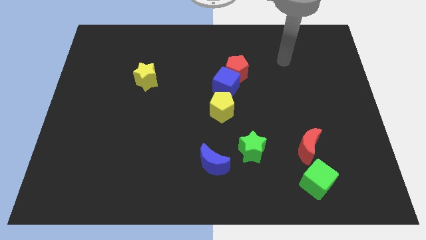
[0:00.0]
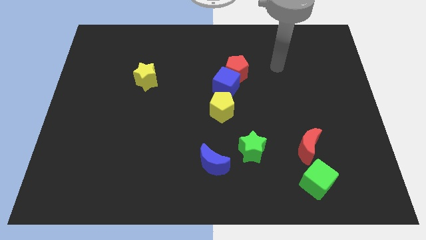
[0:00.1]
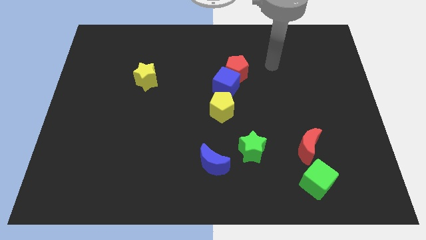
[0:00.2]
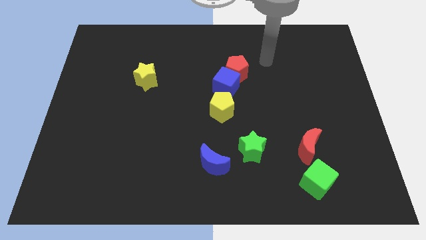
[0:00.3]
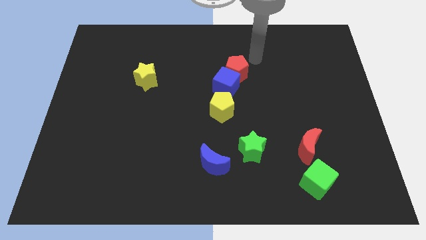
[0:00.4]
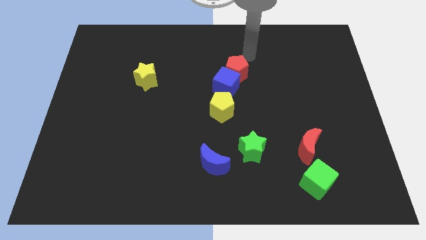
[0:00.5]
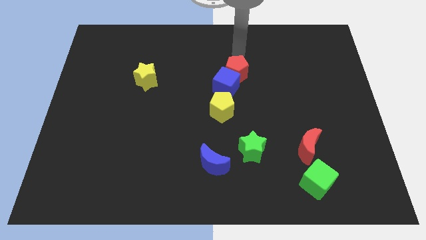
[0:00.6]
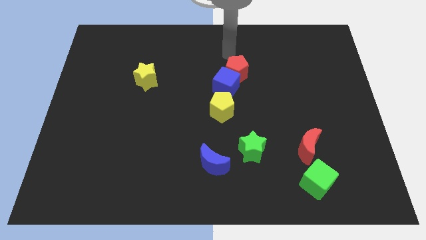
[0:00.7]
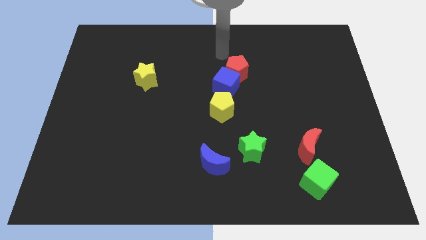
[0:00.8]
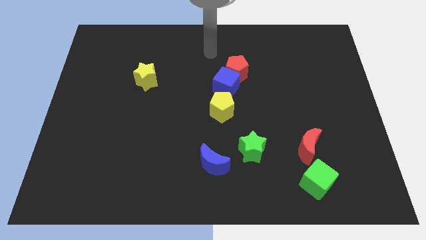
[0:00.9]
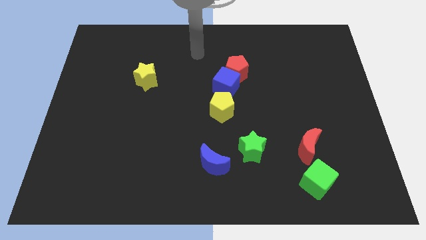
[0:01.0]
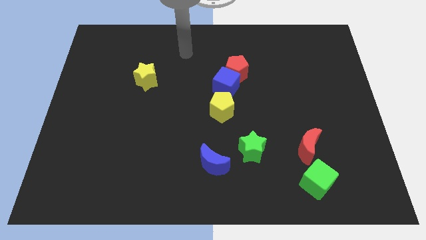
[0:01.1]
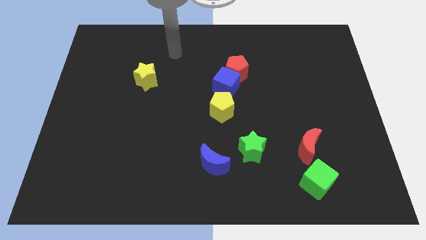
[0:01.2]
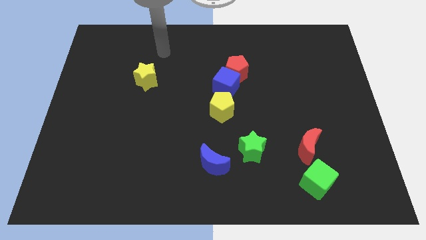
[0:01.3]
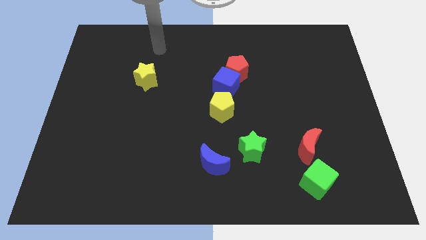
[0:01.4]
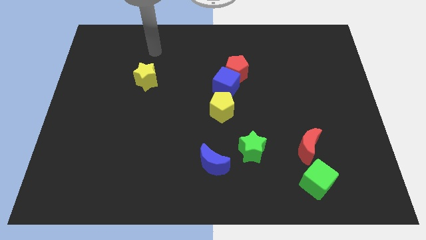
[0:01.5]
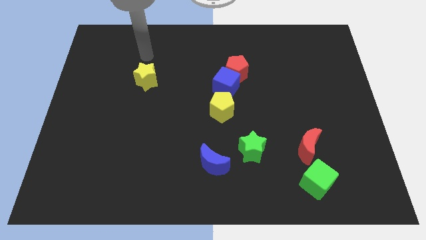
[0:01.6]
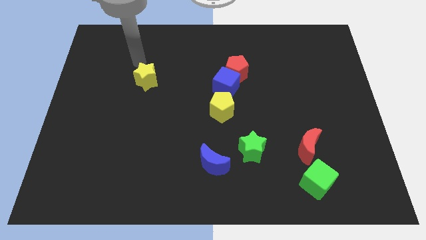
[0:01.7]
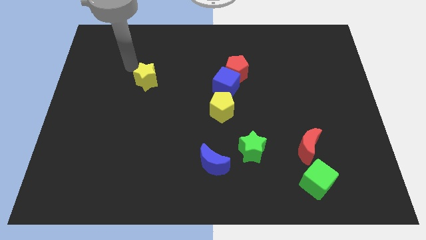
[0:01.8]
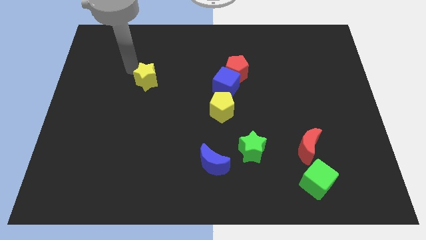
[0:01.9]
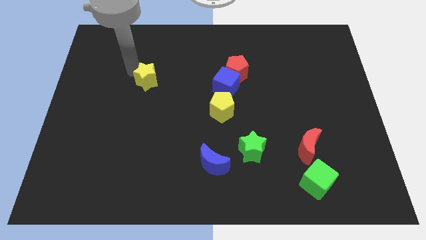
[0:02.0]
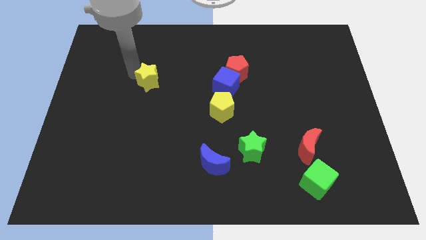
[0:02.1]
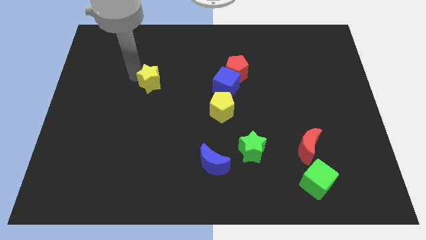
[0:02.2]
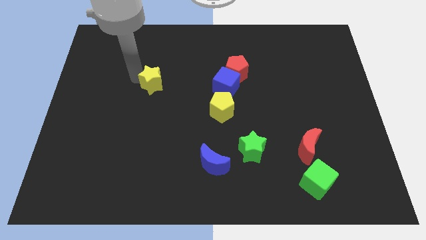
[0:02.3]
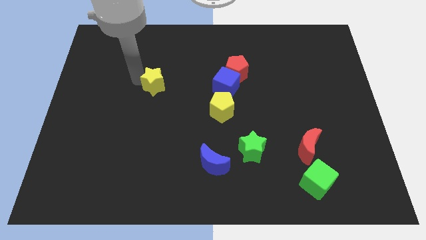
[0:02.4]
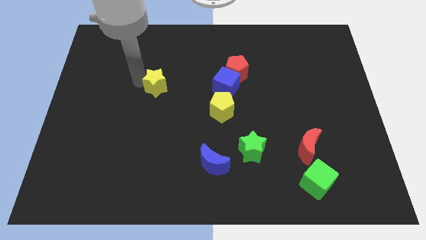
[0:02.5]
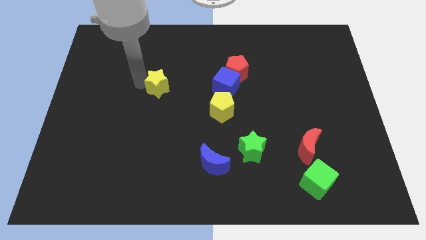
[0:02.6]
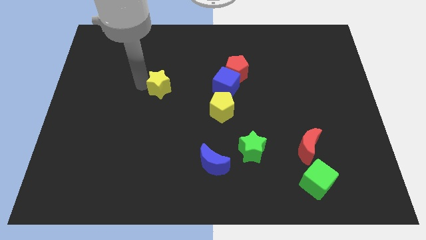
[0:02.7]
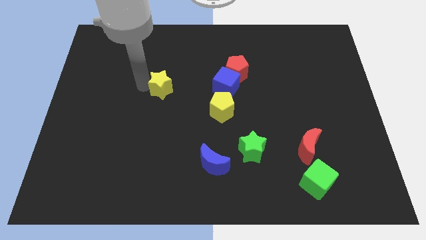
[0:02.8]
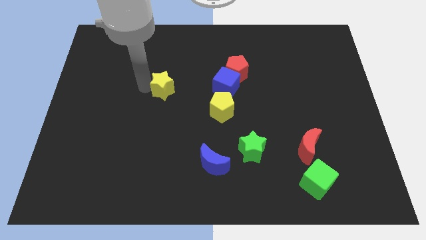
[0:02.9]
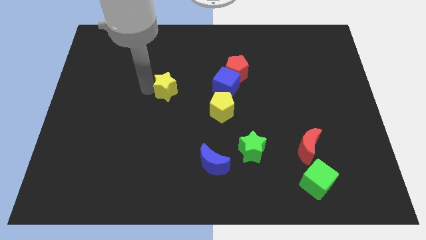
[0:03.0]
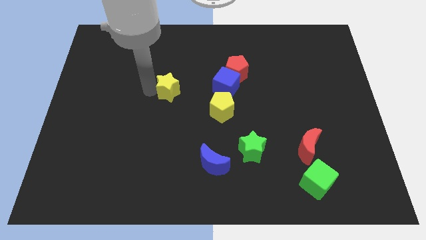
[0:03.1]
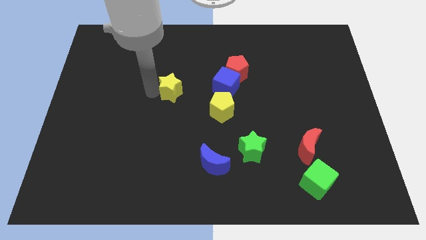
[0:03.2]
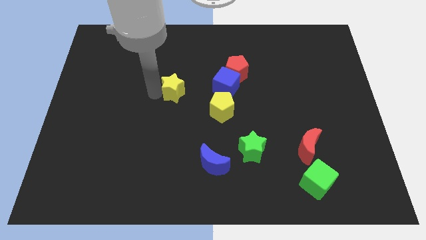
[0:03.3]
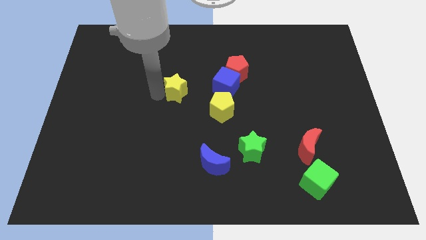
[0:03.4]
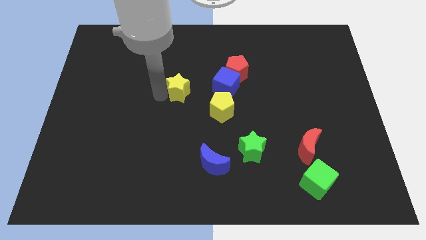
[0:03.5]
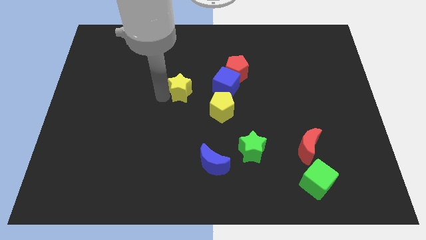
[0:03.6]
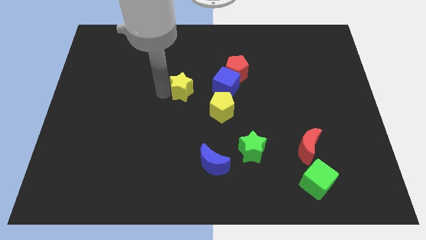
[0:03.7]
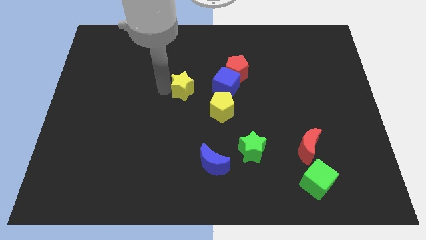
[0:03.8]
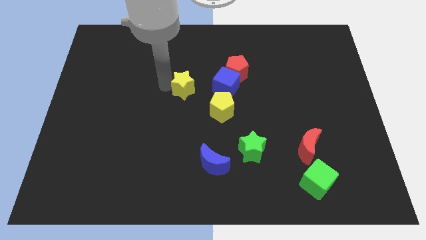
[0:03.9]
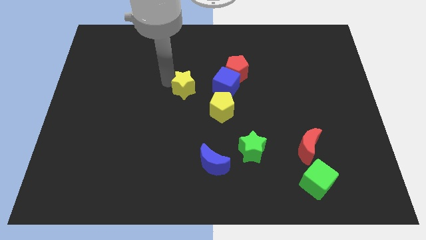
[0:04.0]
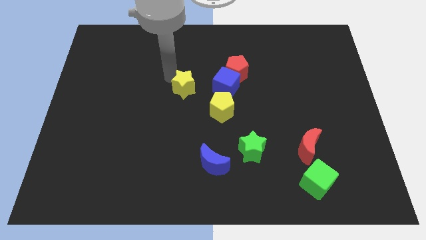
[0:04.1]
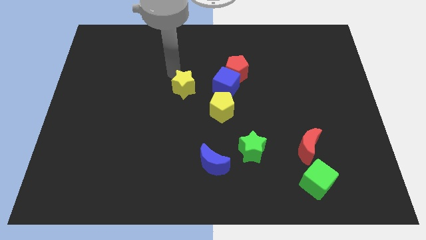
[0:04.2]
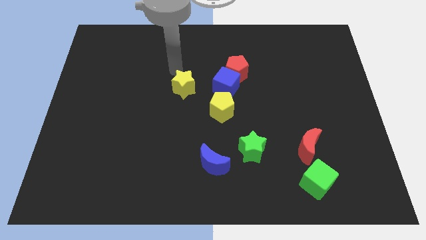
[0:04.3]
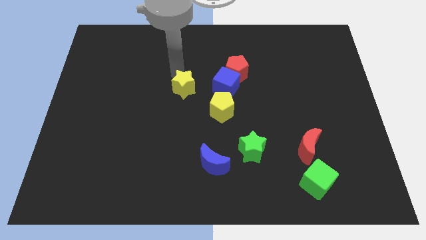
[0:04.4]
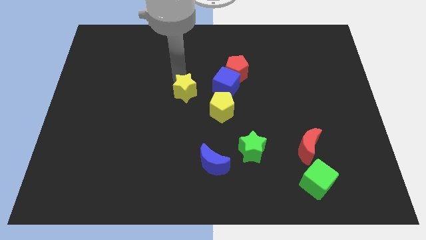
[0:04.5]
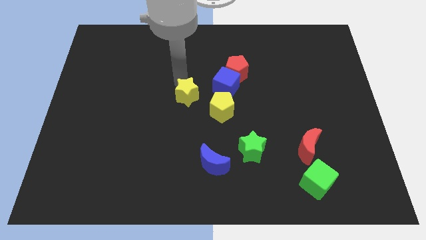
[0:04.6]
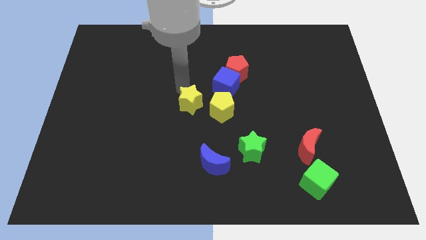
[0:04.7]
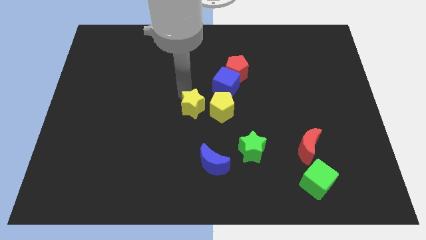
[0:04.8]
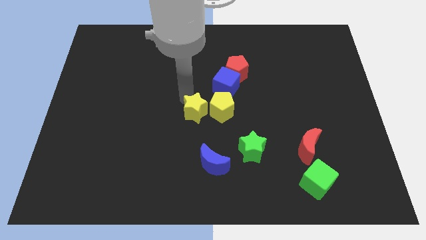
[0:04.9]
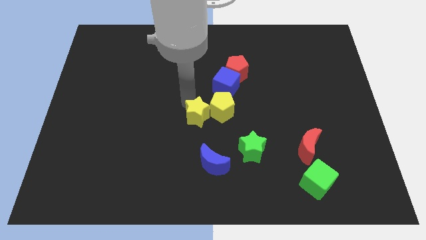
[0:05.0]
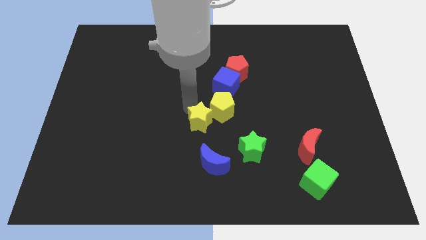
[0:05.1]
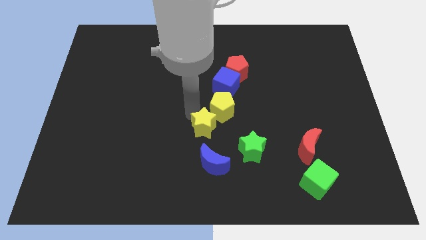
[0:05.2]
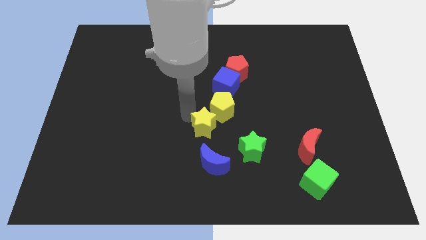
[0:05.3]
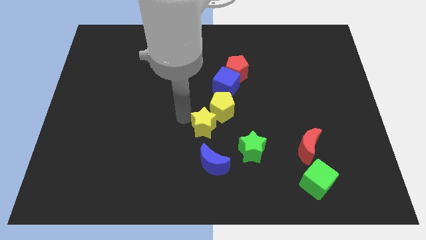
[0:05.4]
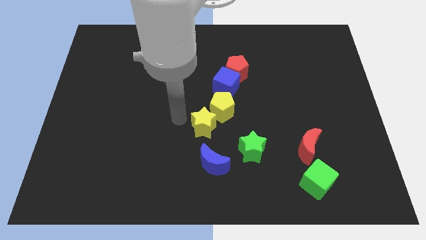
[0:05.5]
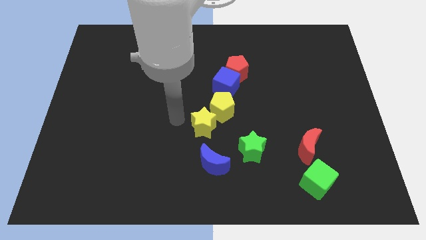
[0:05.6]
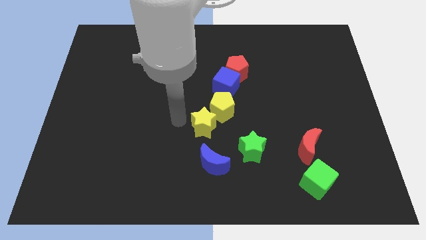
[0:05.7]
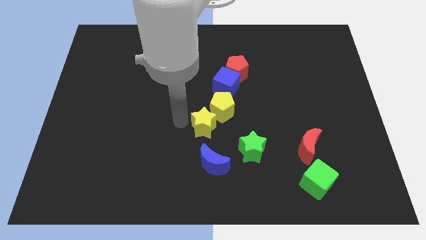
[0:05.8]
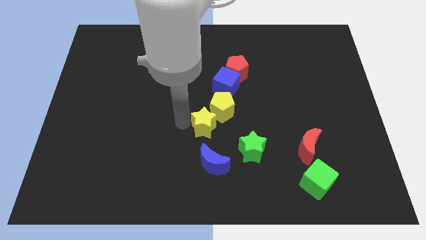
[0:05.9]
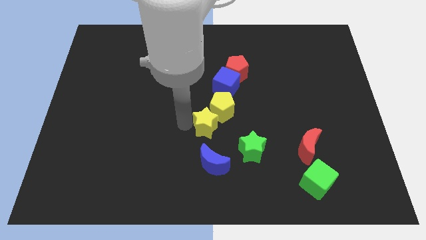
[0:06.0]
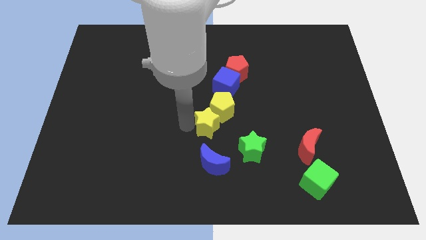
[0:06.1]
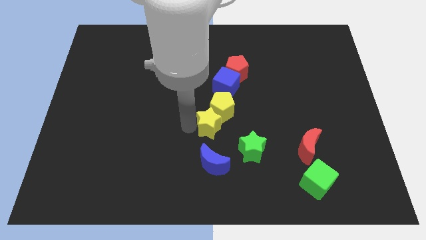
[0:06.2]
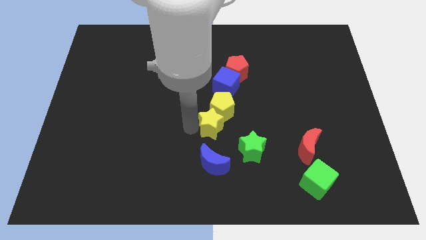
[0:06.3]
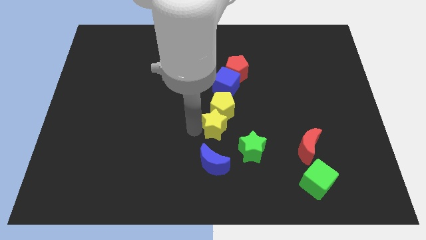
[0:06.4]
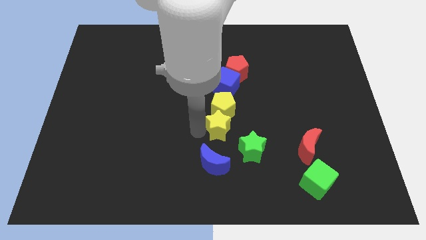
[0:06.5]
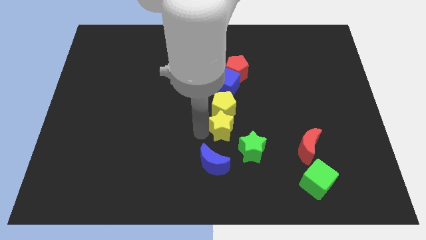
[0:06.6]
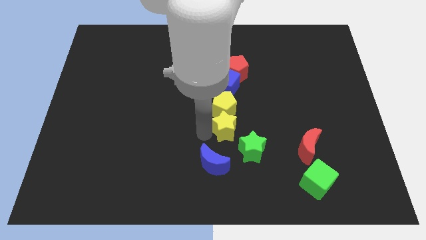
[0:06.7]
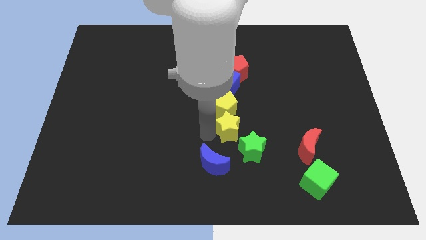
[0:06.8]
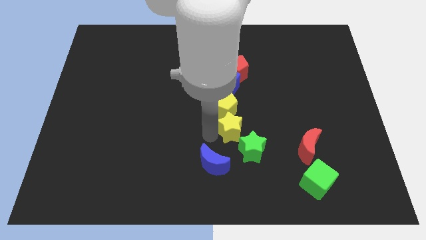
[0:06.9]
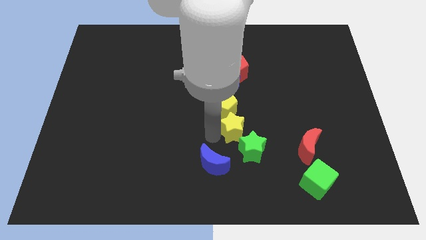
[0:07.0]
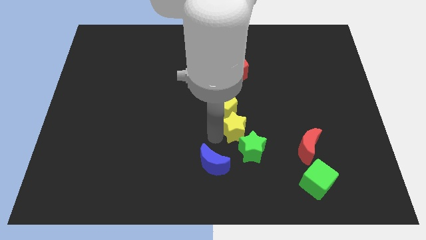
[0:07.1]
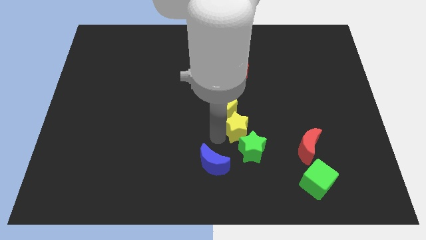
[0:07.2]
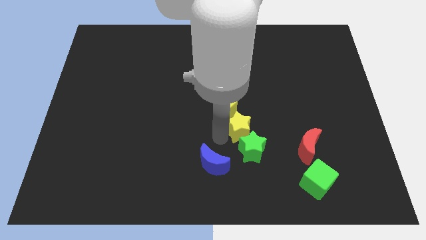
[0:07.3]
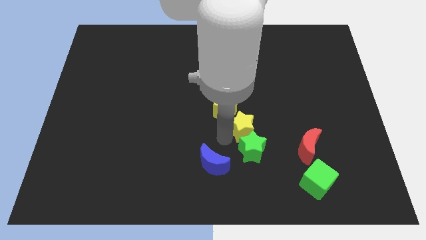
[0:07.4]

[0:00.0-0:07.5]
move the yellow star to the top right of the green star
